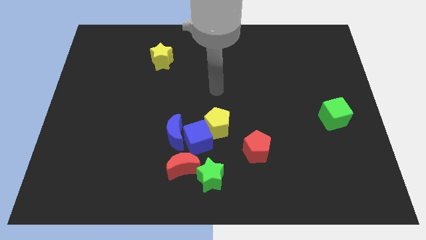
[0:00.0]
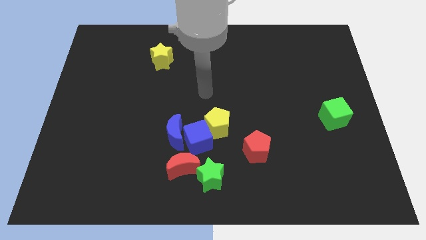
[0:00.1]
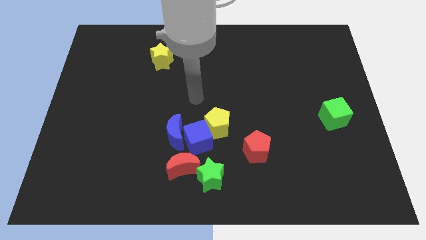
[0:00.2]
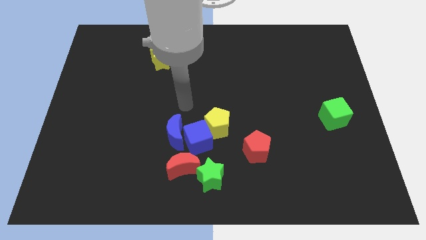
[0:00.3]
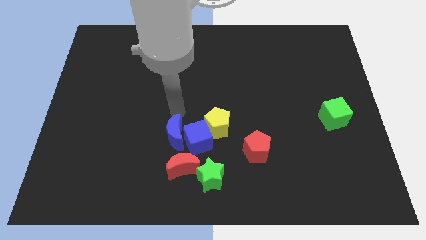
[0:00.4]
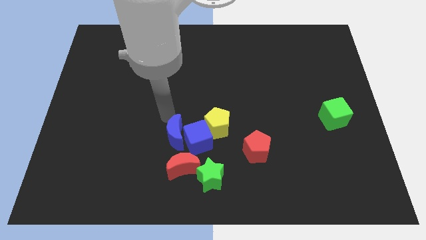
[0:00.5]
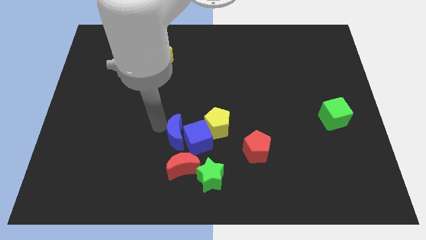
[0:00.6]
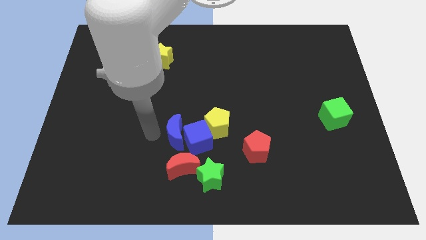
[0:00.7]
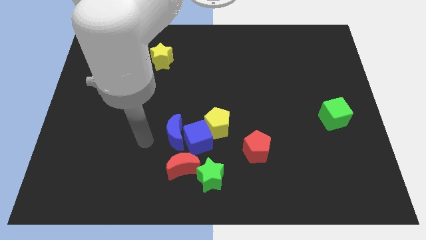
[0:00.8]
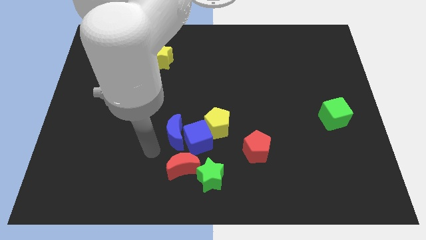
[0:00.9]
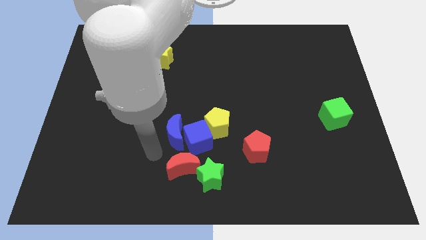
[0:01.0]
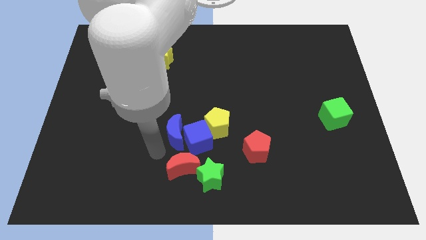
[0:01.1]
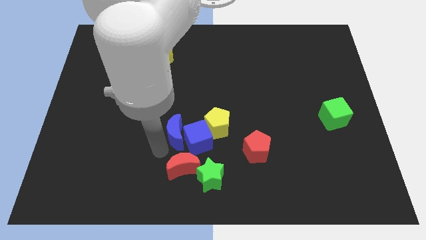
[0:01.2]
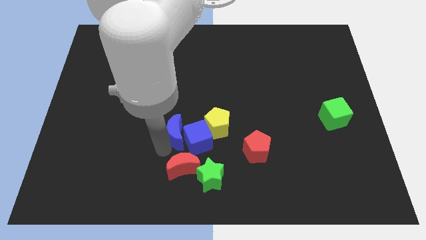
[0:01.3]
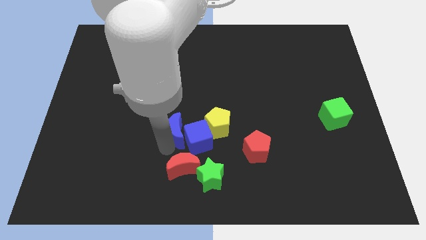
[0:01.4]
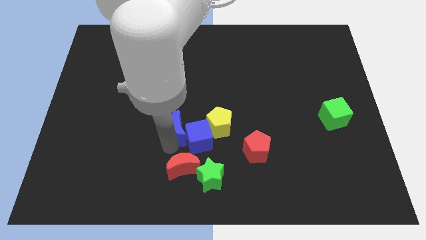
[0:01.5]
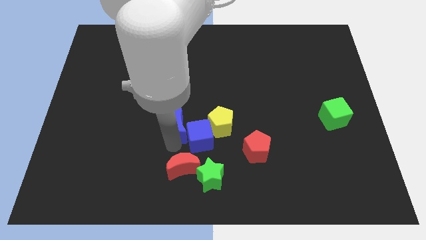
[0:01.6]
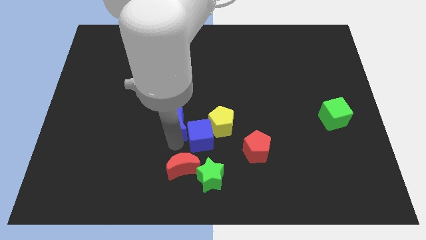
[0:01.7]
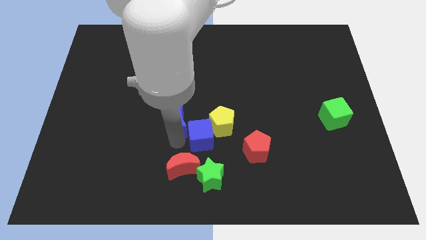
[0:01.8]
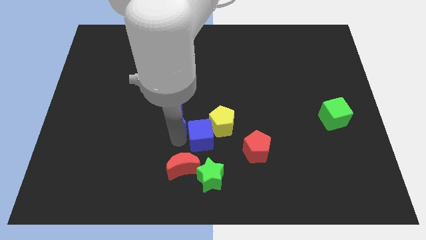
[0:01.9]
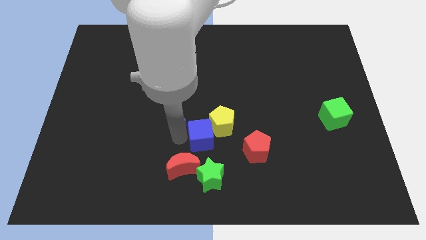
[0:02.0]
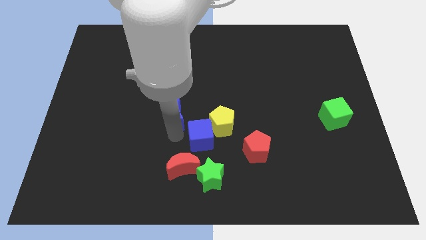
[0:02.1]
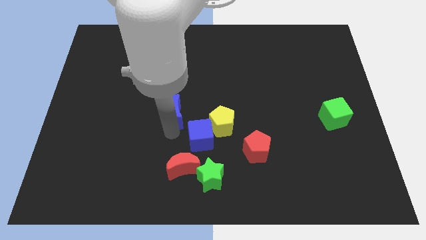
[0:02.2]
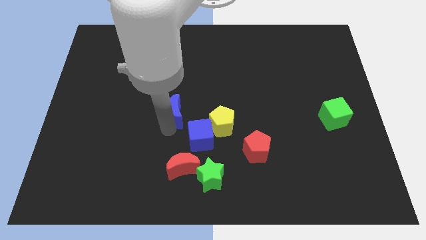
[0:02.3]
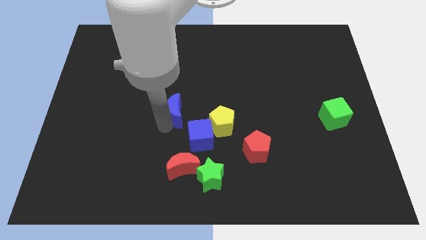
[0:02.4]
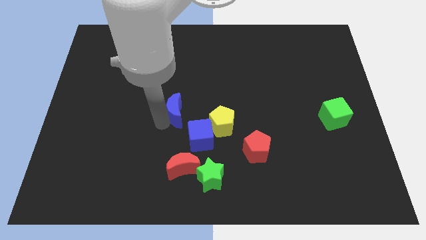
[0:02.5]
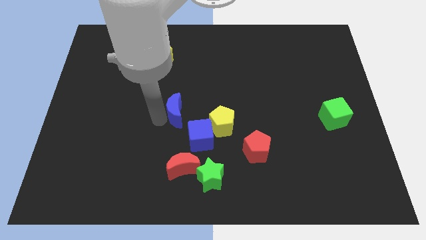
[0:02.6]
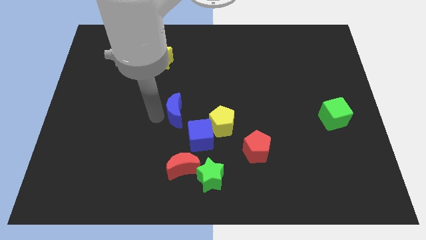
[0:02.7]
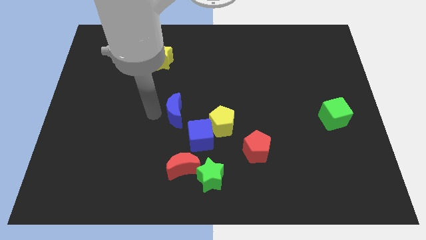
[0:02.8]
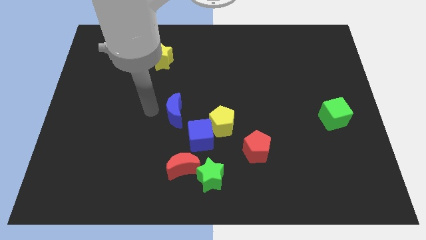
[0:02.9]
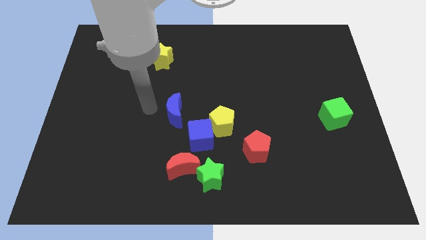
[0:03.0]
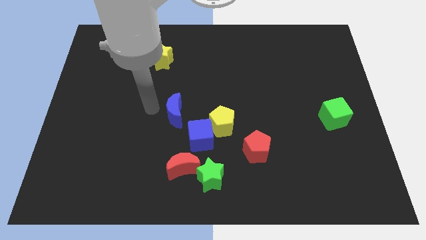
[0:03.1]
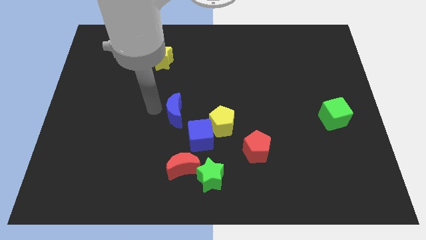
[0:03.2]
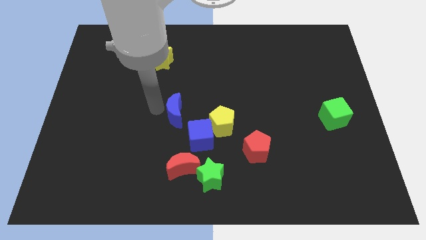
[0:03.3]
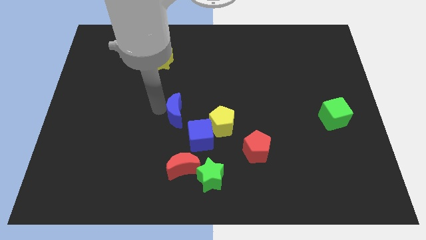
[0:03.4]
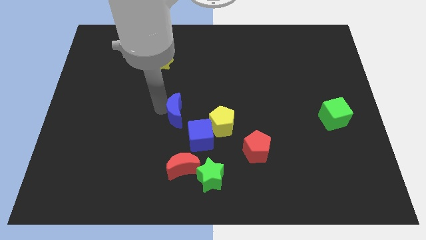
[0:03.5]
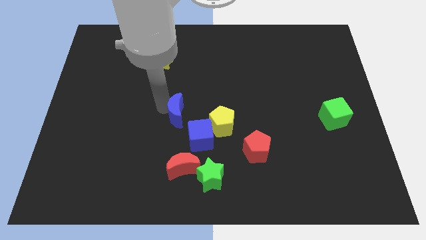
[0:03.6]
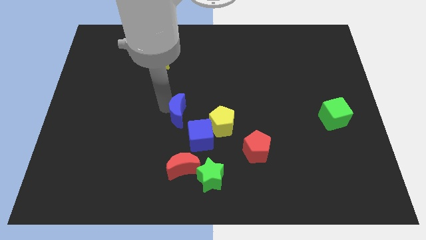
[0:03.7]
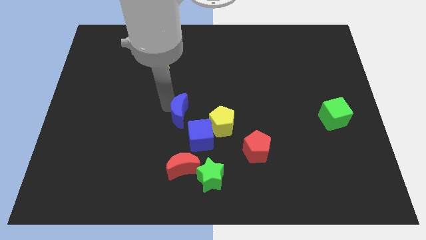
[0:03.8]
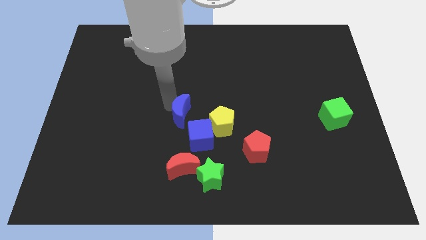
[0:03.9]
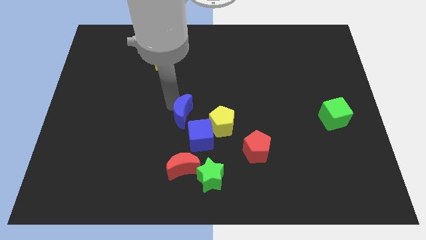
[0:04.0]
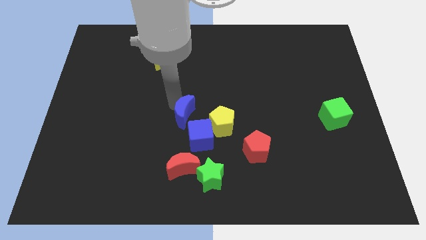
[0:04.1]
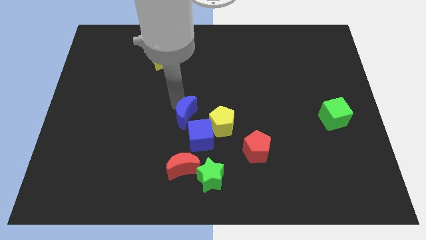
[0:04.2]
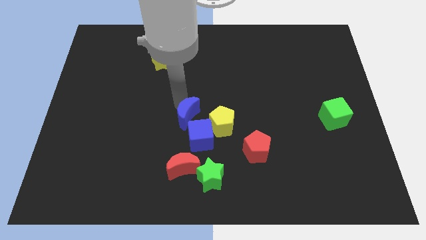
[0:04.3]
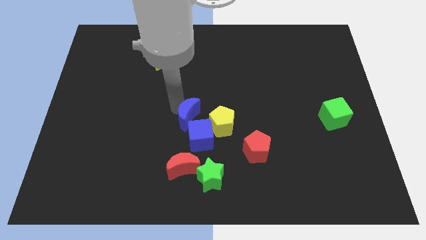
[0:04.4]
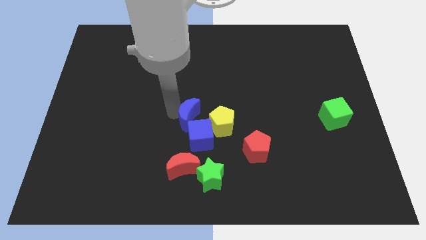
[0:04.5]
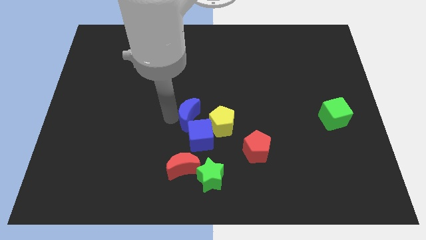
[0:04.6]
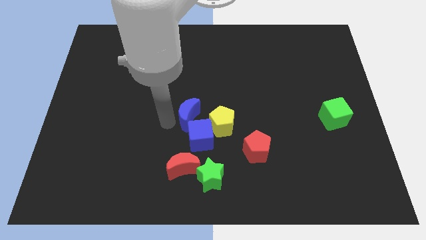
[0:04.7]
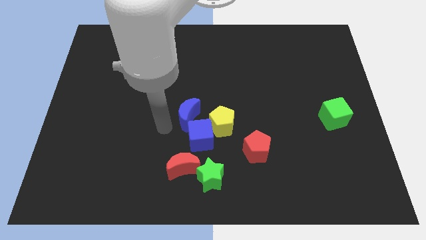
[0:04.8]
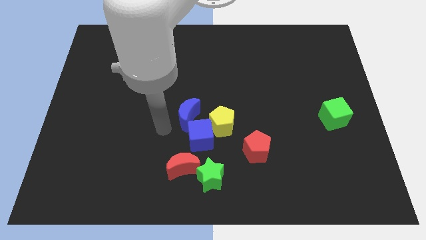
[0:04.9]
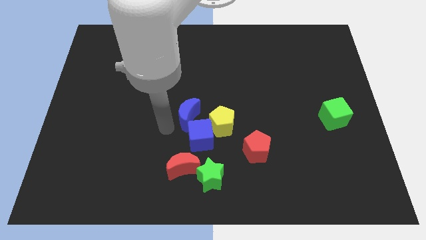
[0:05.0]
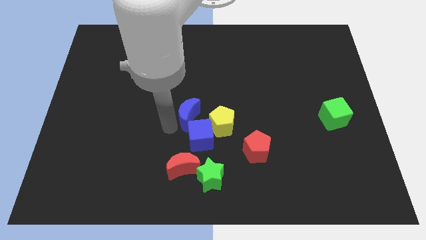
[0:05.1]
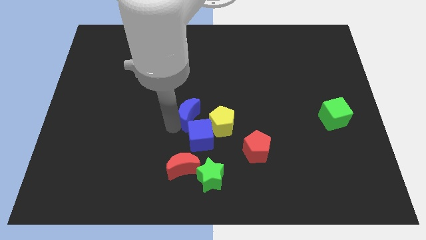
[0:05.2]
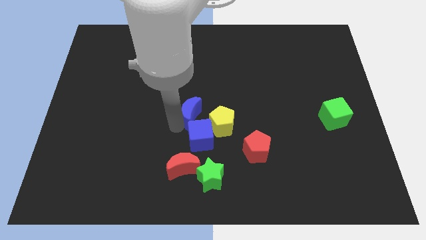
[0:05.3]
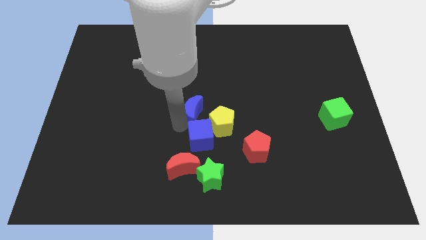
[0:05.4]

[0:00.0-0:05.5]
move the blue moon slightly upwards and right diagonally

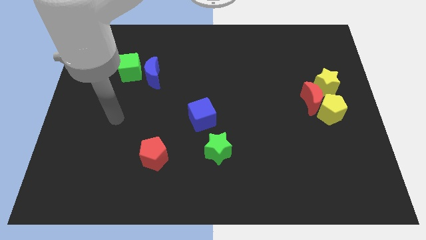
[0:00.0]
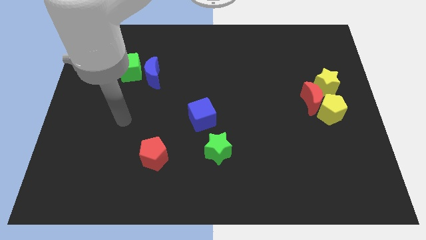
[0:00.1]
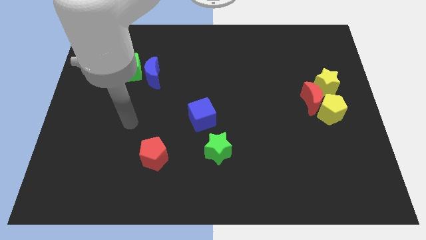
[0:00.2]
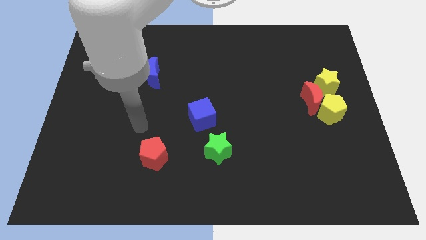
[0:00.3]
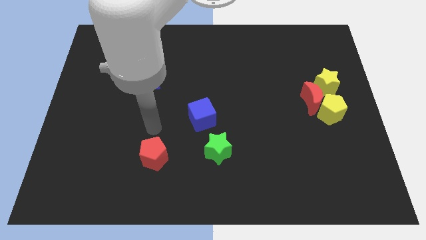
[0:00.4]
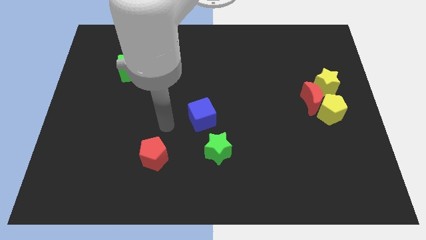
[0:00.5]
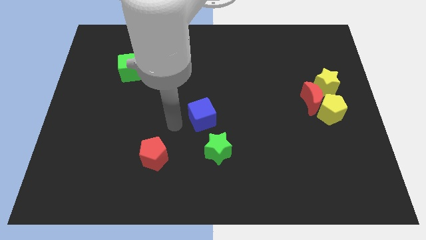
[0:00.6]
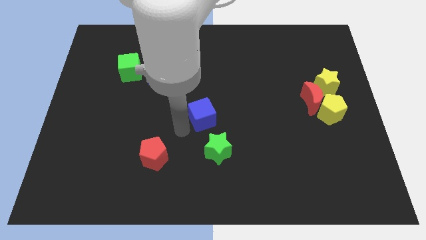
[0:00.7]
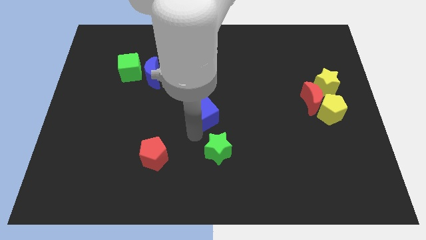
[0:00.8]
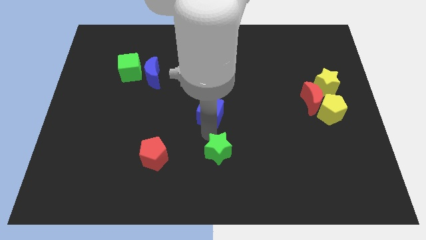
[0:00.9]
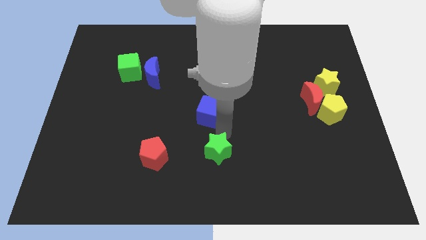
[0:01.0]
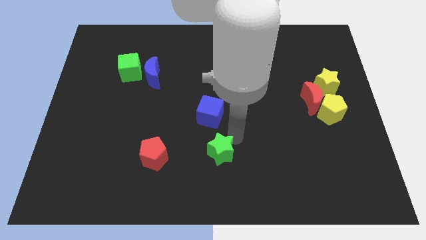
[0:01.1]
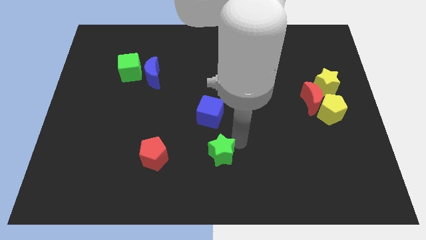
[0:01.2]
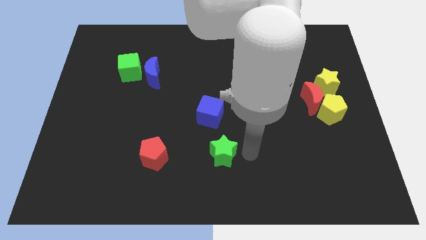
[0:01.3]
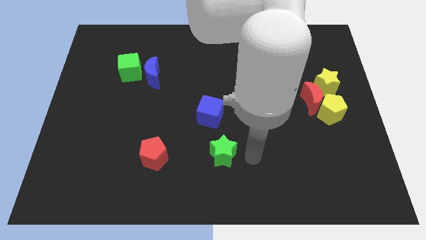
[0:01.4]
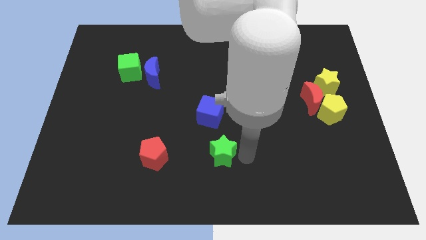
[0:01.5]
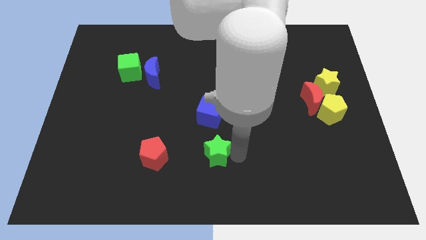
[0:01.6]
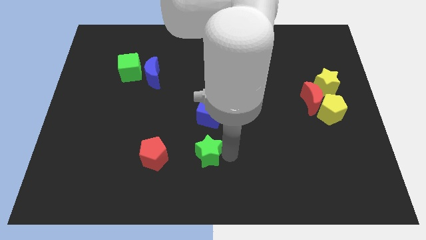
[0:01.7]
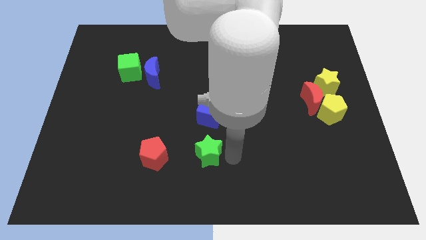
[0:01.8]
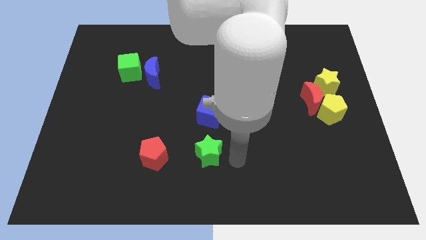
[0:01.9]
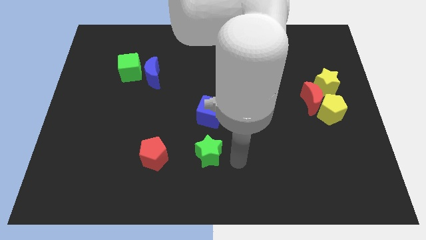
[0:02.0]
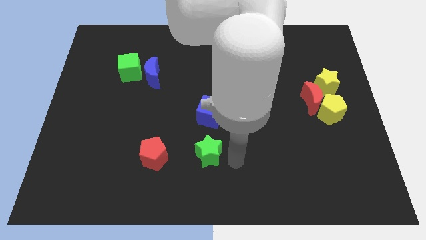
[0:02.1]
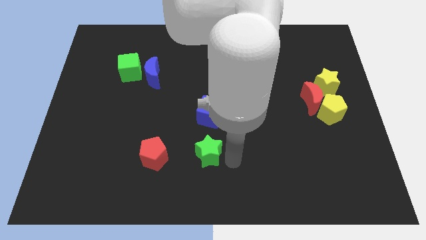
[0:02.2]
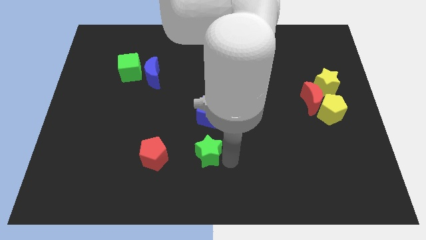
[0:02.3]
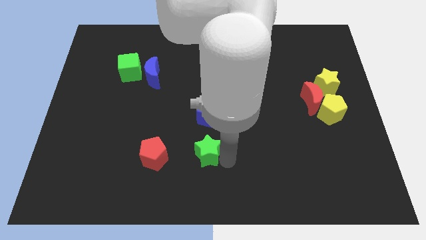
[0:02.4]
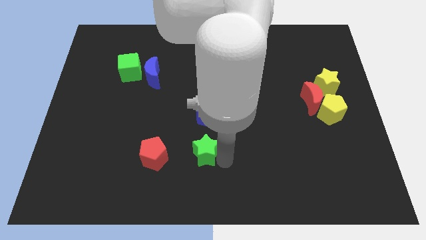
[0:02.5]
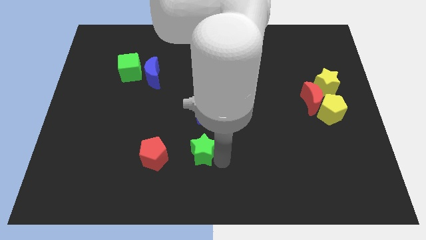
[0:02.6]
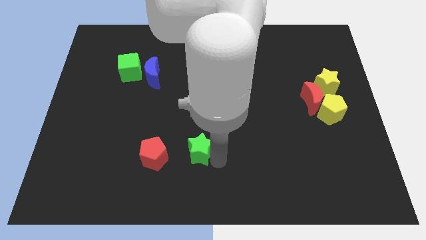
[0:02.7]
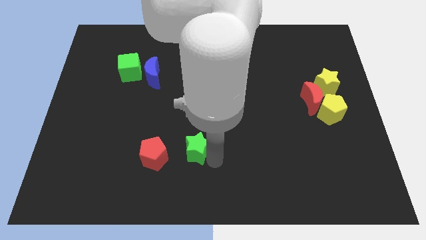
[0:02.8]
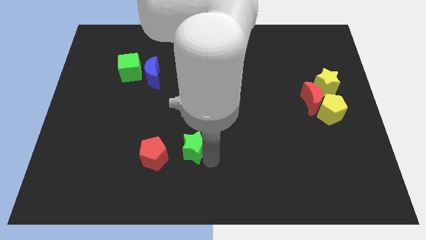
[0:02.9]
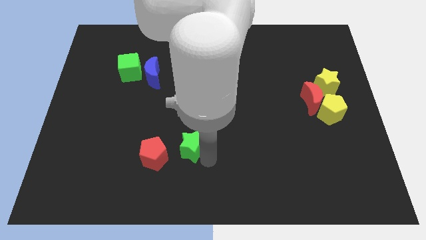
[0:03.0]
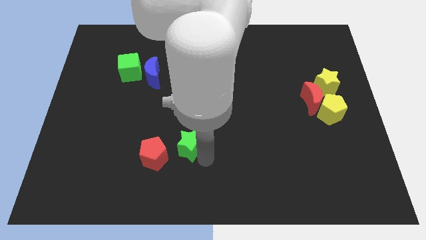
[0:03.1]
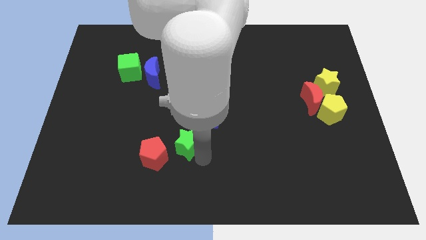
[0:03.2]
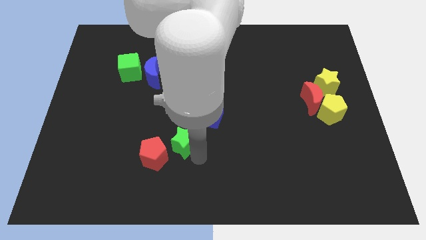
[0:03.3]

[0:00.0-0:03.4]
push the green star somewhat to the left
